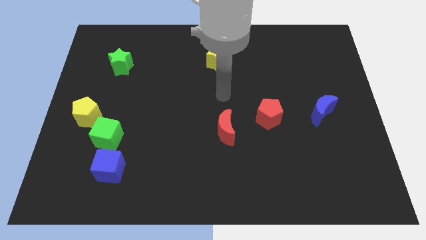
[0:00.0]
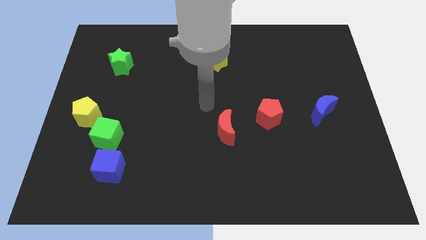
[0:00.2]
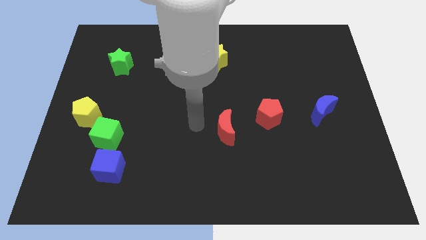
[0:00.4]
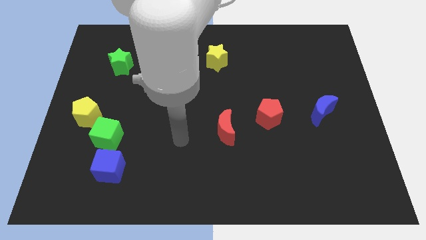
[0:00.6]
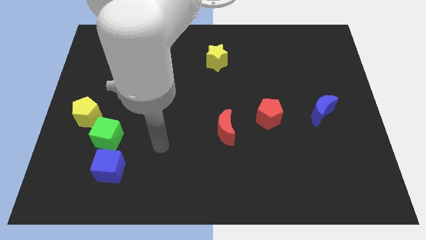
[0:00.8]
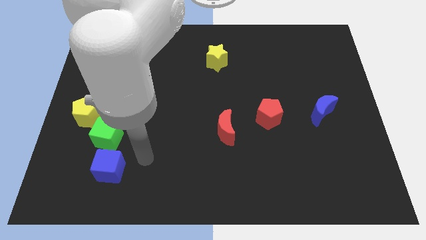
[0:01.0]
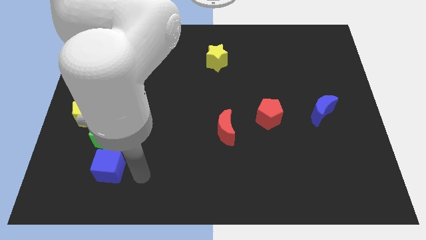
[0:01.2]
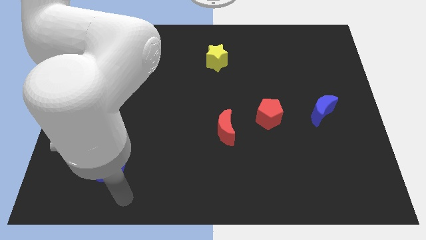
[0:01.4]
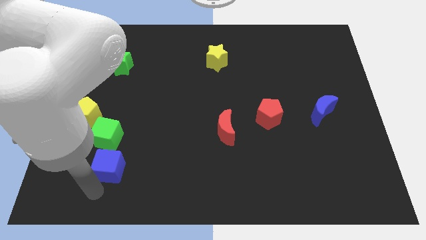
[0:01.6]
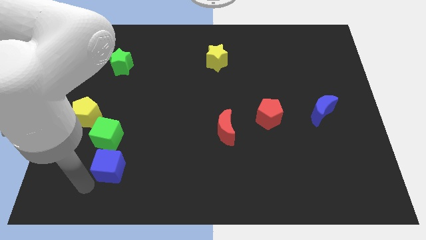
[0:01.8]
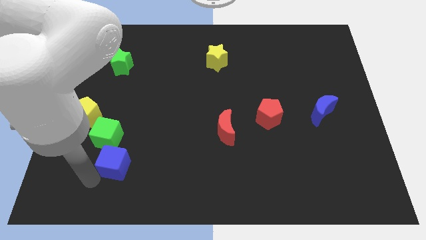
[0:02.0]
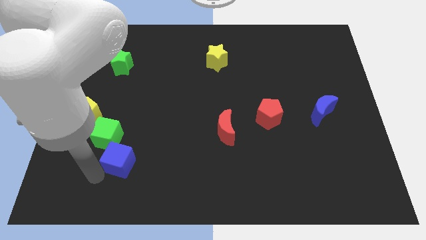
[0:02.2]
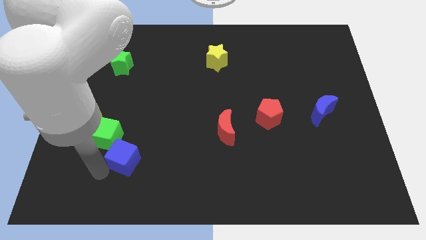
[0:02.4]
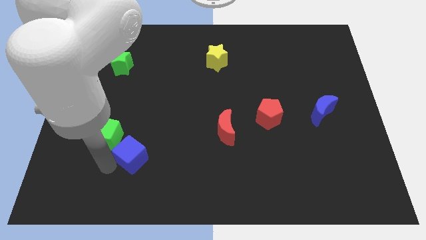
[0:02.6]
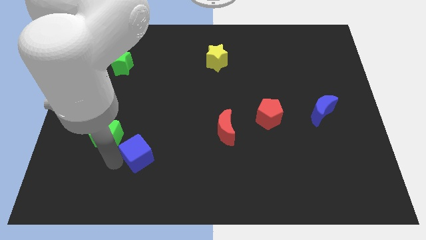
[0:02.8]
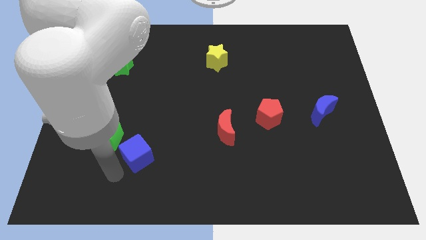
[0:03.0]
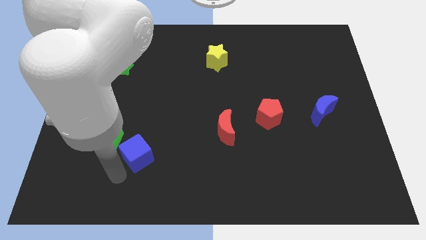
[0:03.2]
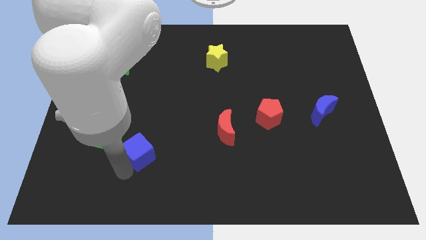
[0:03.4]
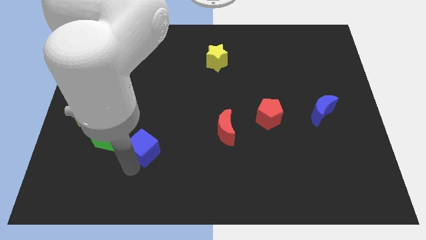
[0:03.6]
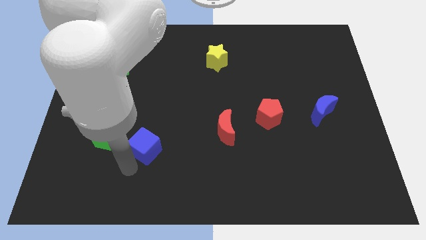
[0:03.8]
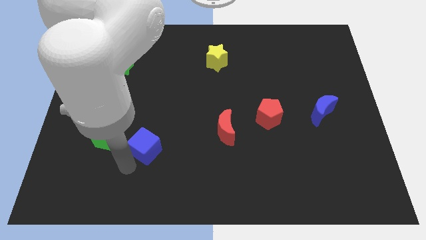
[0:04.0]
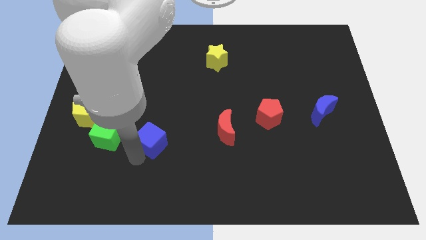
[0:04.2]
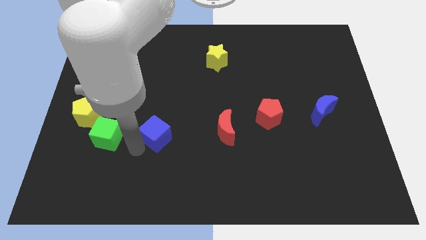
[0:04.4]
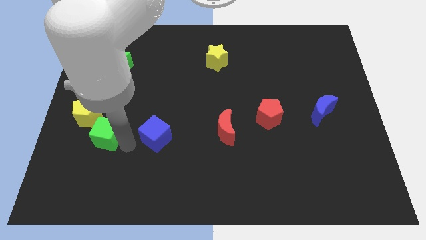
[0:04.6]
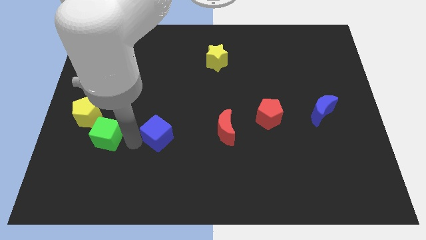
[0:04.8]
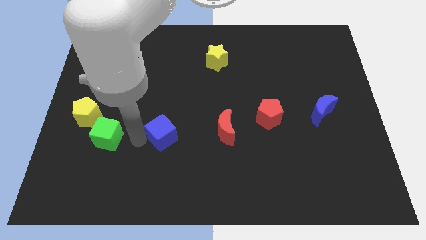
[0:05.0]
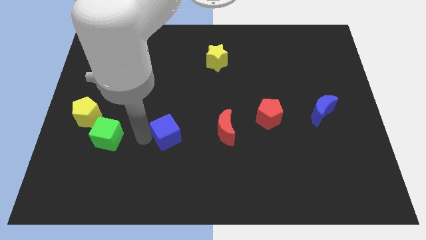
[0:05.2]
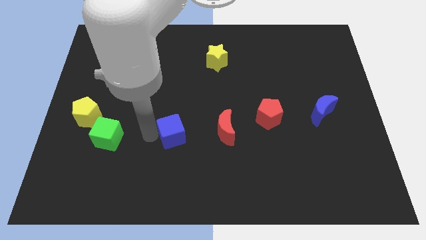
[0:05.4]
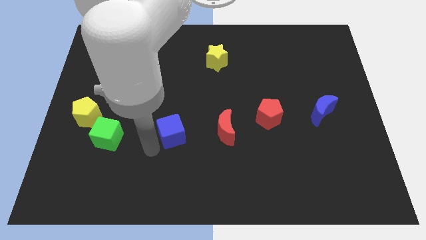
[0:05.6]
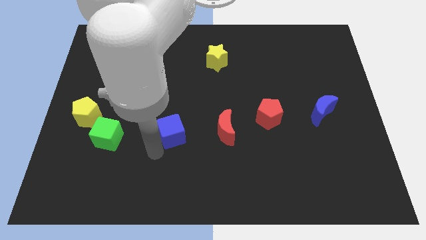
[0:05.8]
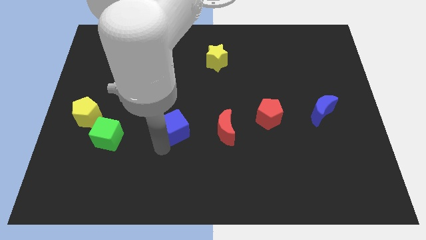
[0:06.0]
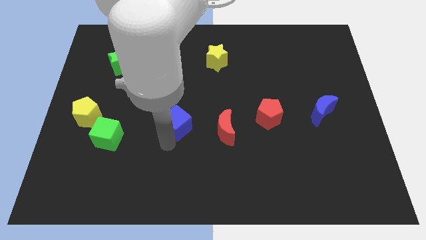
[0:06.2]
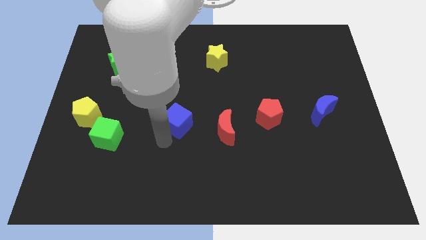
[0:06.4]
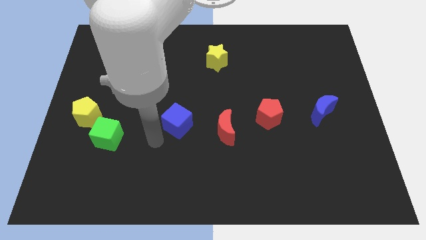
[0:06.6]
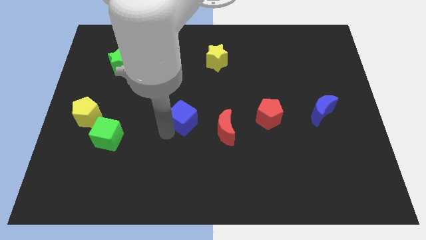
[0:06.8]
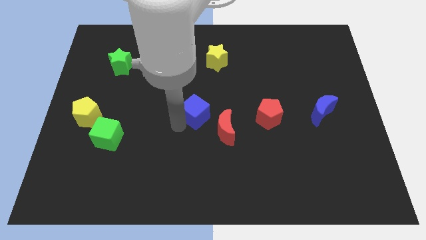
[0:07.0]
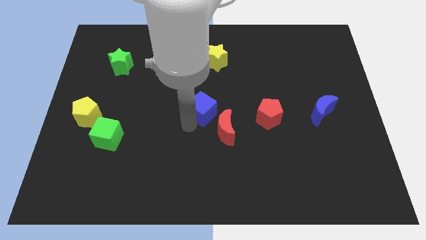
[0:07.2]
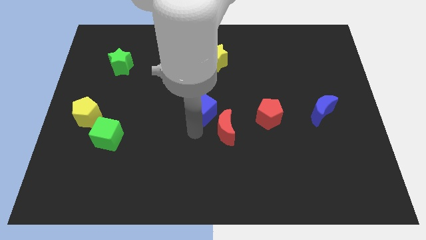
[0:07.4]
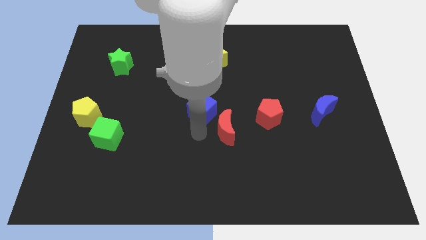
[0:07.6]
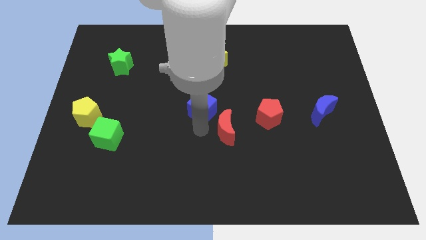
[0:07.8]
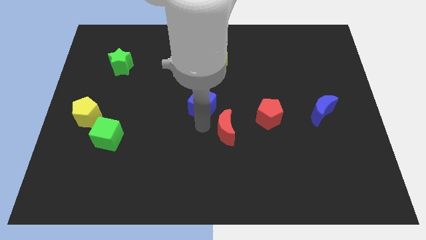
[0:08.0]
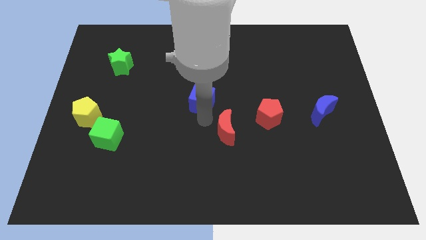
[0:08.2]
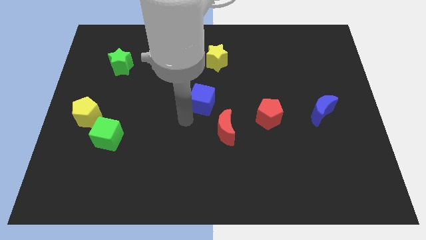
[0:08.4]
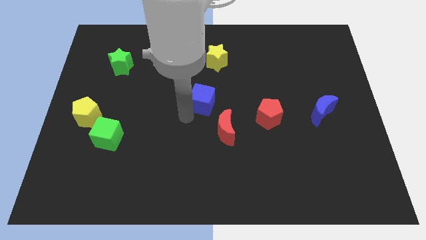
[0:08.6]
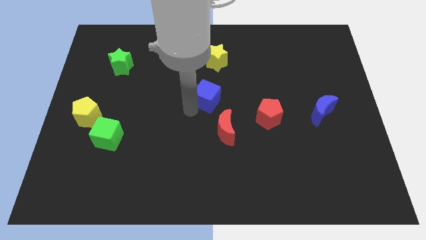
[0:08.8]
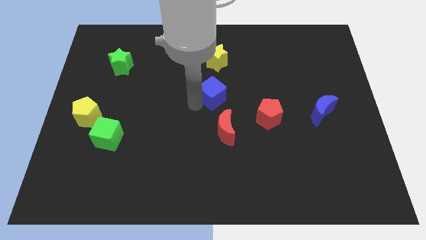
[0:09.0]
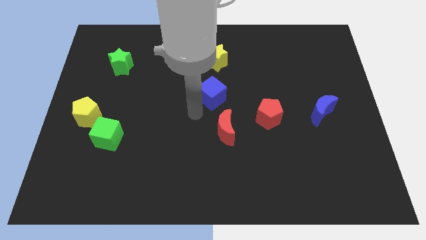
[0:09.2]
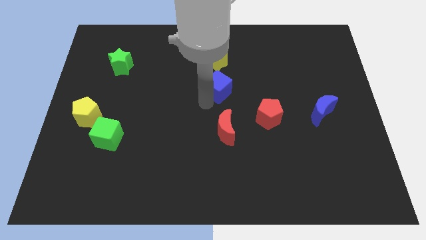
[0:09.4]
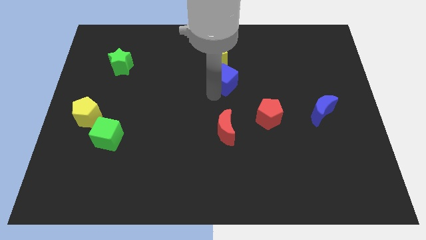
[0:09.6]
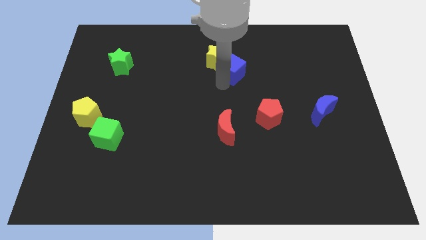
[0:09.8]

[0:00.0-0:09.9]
push the blue cube to the right of the yellow star

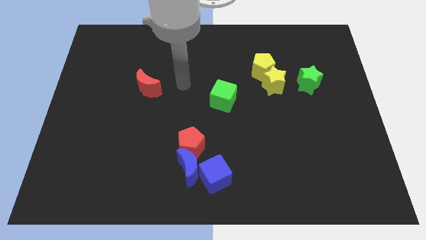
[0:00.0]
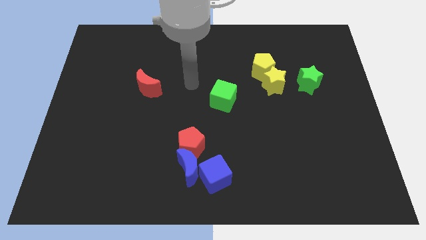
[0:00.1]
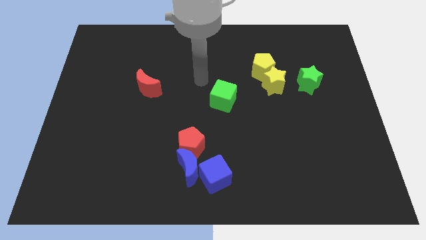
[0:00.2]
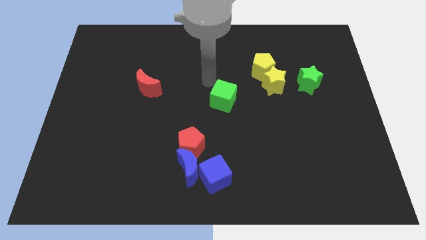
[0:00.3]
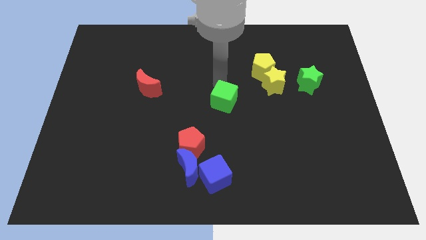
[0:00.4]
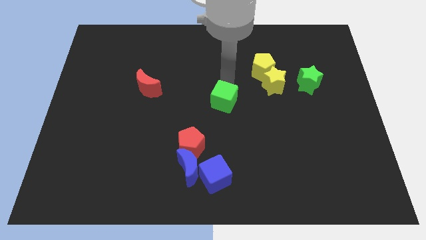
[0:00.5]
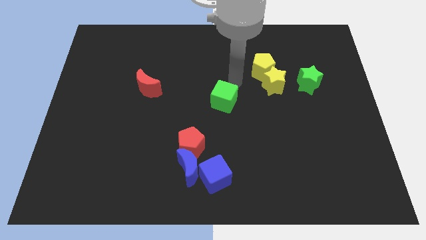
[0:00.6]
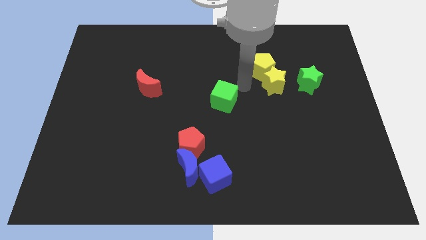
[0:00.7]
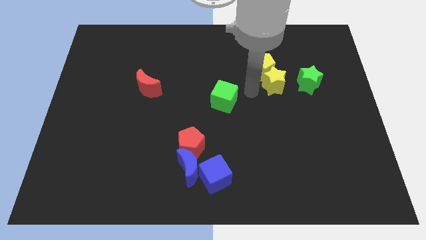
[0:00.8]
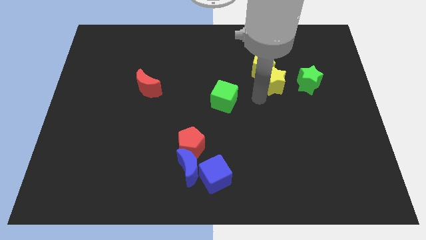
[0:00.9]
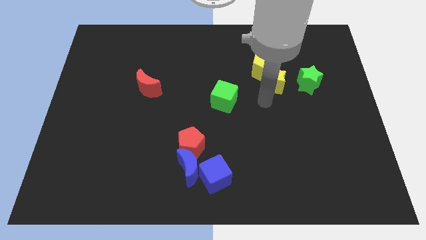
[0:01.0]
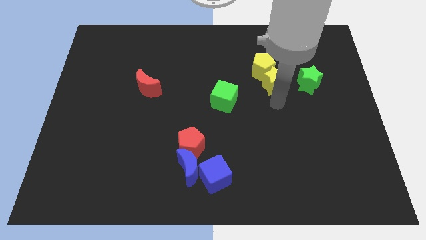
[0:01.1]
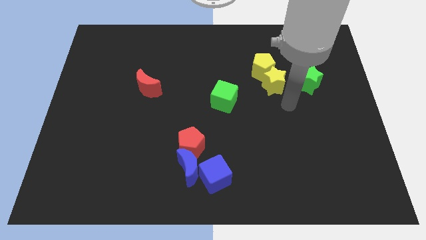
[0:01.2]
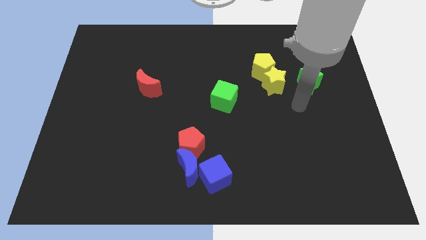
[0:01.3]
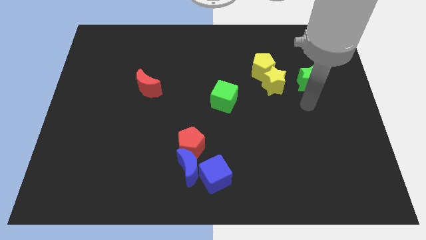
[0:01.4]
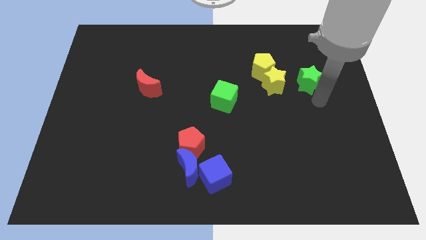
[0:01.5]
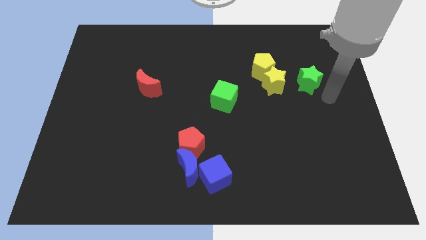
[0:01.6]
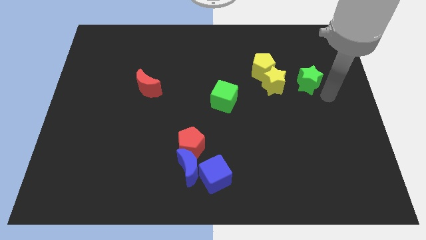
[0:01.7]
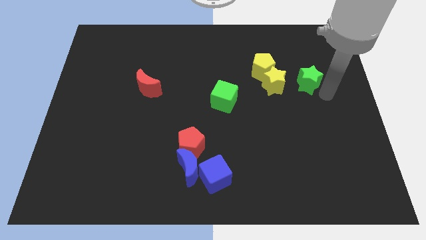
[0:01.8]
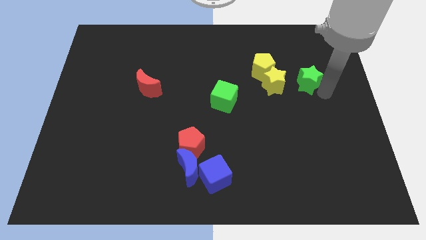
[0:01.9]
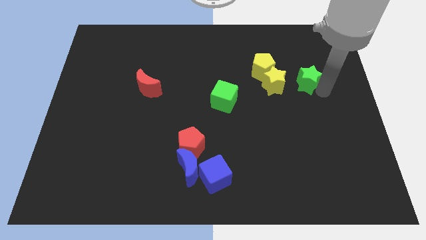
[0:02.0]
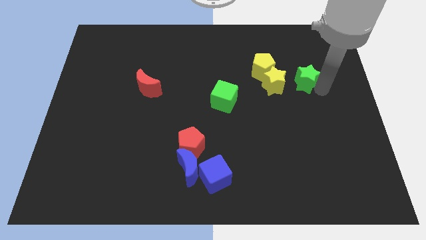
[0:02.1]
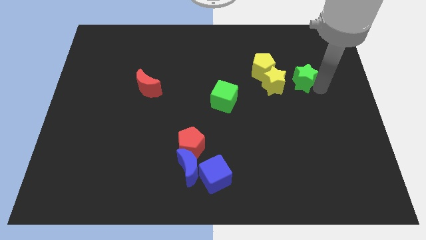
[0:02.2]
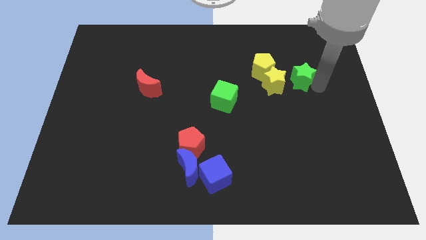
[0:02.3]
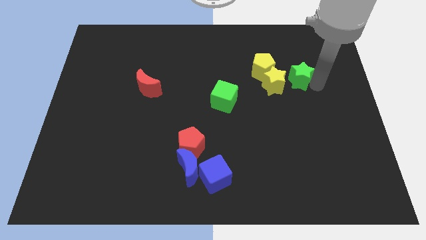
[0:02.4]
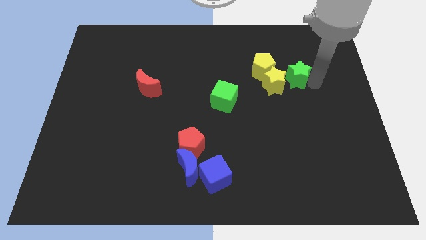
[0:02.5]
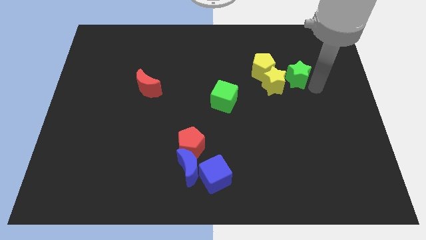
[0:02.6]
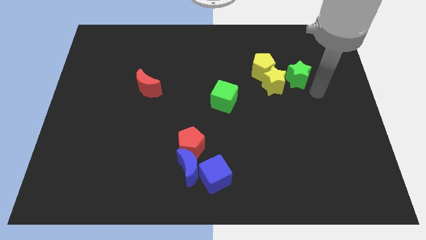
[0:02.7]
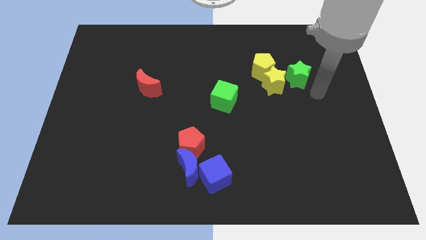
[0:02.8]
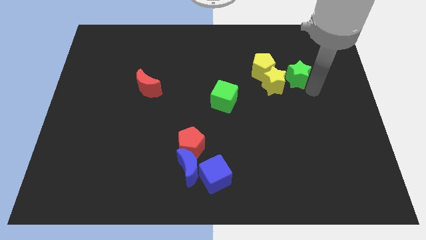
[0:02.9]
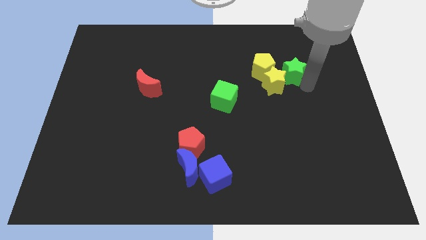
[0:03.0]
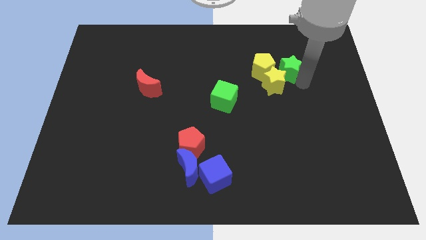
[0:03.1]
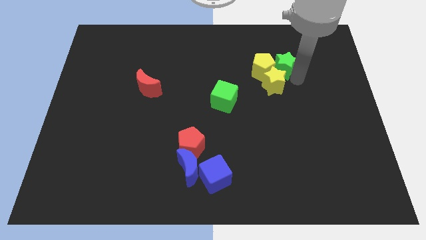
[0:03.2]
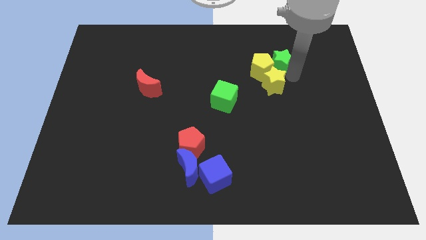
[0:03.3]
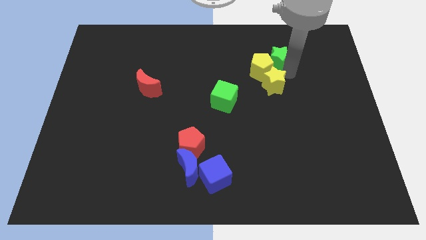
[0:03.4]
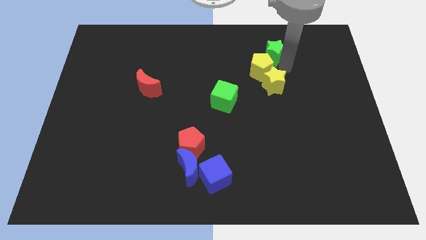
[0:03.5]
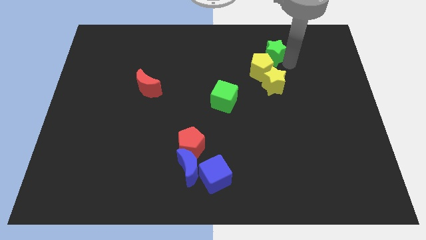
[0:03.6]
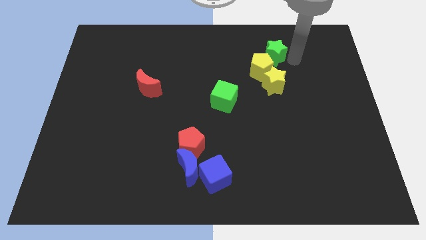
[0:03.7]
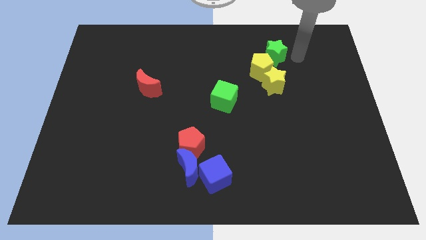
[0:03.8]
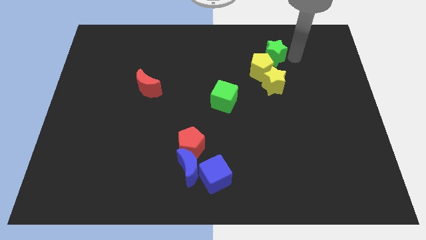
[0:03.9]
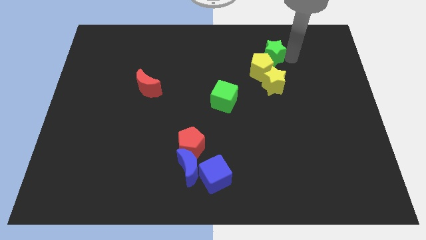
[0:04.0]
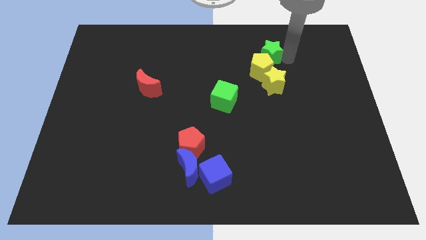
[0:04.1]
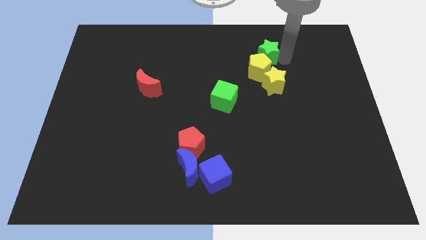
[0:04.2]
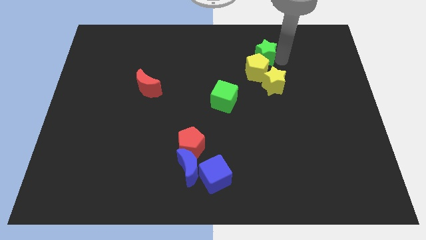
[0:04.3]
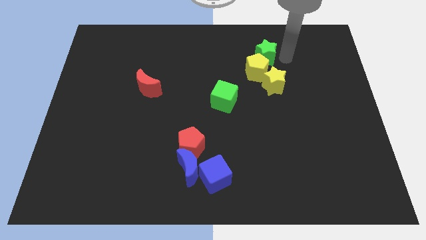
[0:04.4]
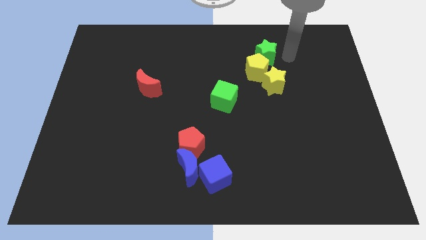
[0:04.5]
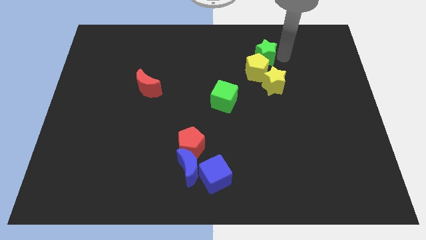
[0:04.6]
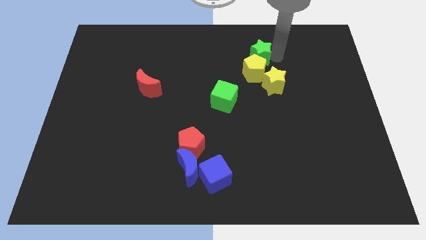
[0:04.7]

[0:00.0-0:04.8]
put the green star to the top left of the yellow pentagon
